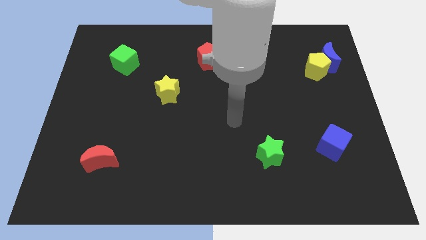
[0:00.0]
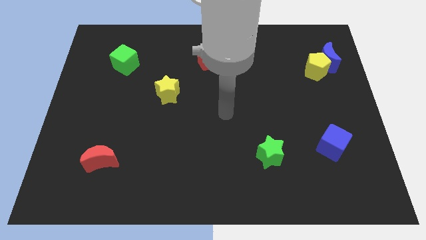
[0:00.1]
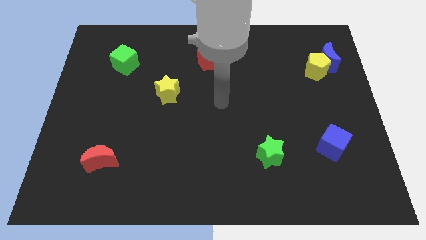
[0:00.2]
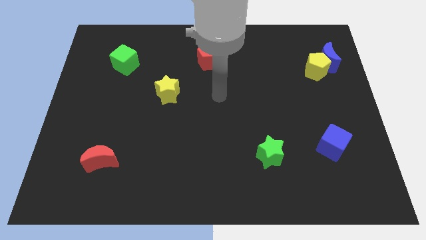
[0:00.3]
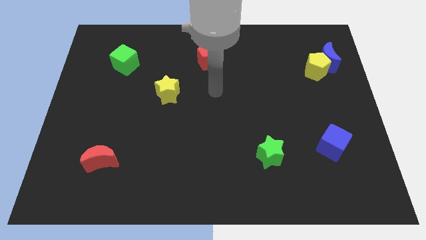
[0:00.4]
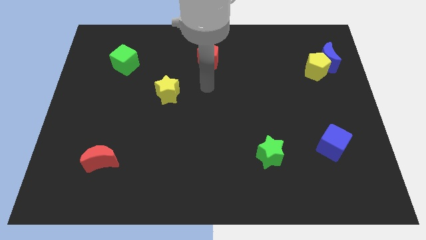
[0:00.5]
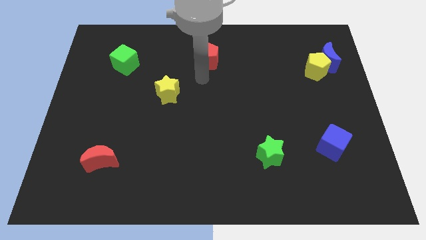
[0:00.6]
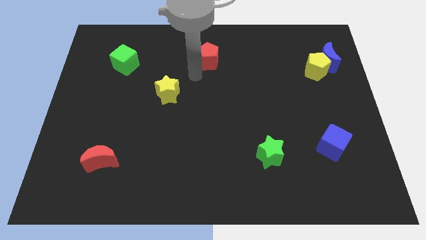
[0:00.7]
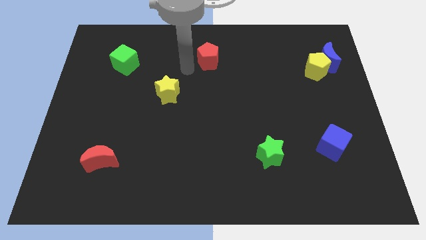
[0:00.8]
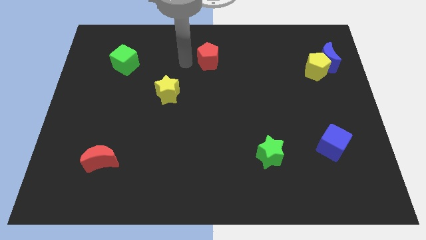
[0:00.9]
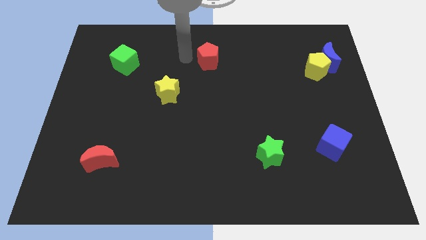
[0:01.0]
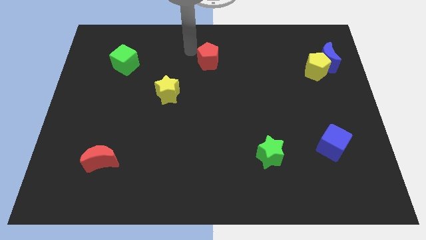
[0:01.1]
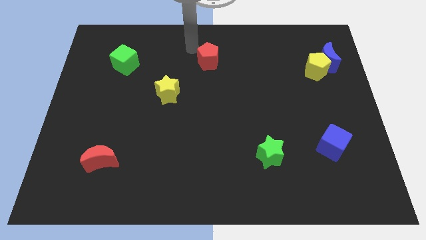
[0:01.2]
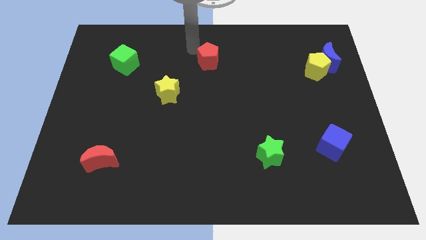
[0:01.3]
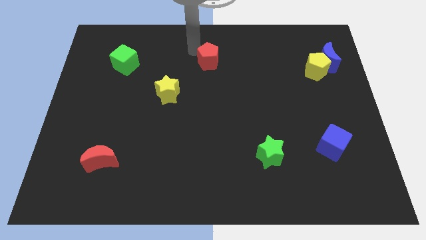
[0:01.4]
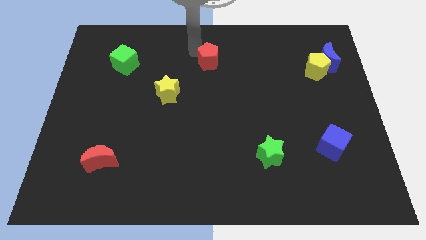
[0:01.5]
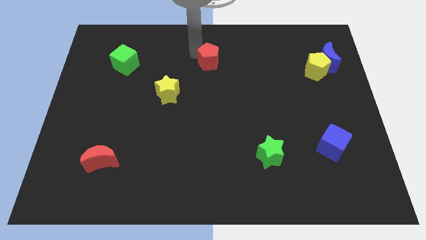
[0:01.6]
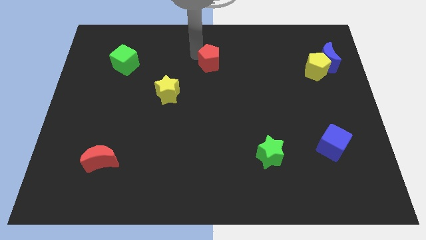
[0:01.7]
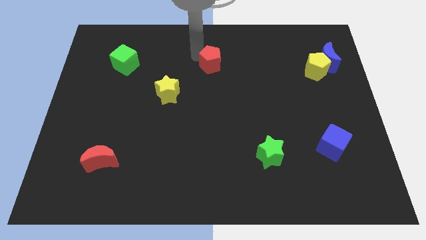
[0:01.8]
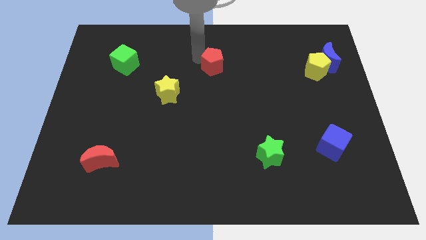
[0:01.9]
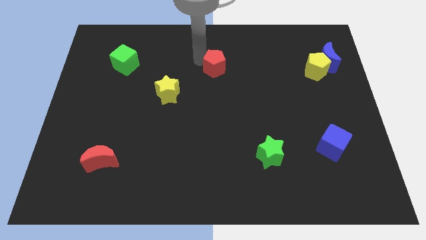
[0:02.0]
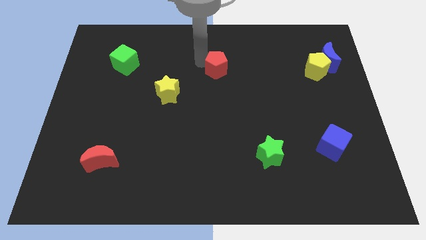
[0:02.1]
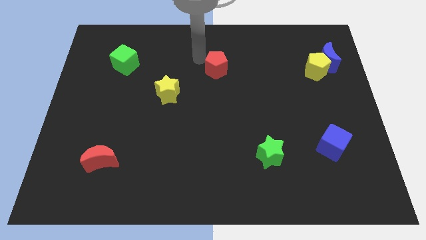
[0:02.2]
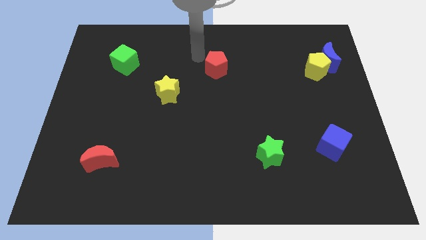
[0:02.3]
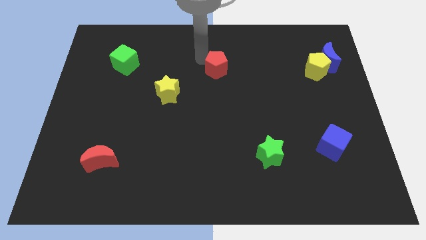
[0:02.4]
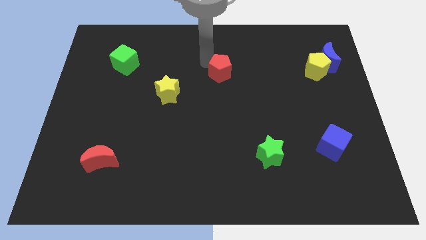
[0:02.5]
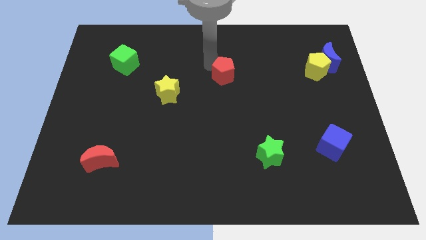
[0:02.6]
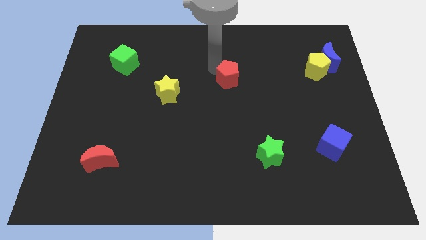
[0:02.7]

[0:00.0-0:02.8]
slightly push the red pentagon diagonally downwards and right

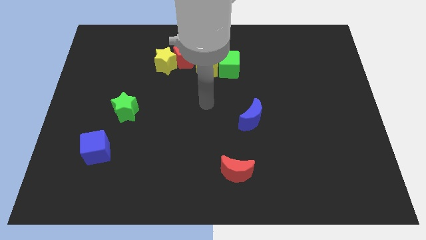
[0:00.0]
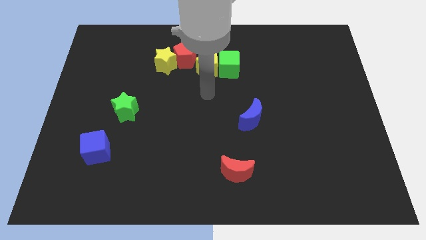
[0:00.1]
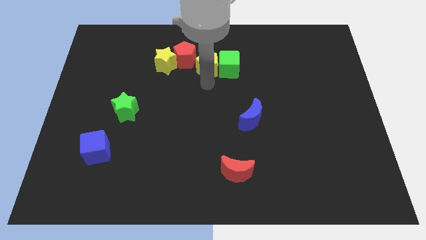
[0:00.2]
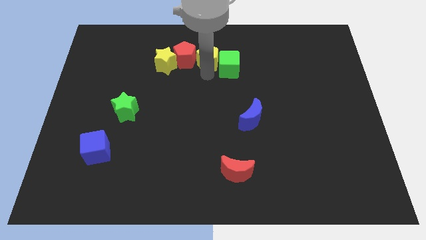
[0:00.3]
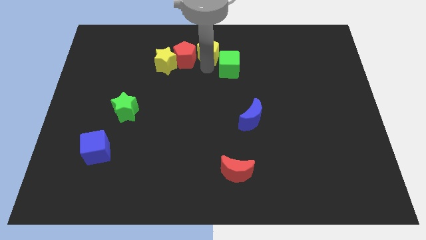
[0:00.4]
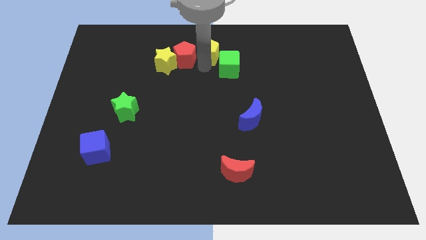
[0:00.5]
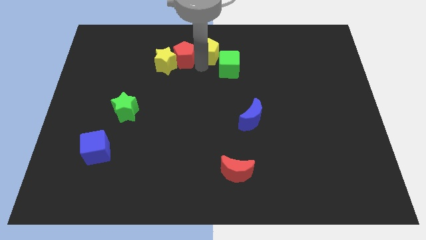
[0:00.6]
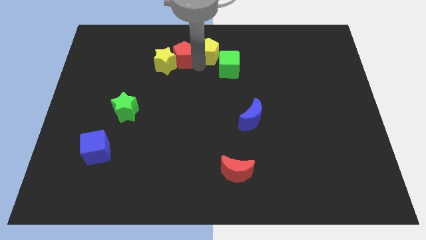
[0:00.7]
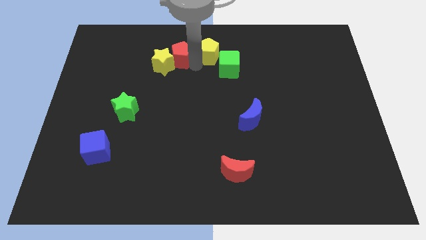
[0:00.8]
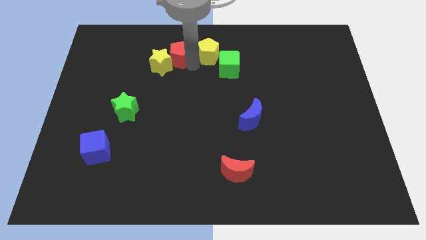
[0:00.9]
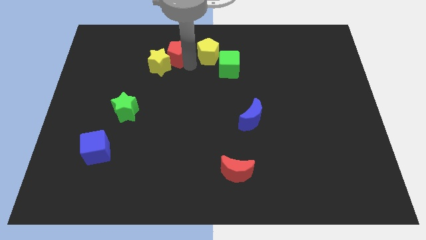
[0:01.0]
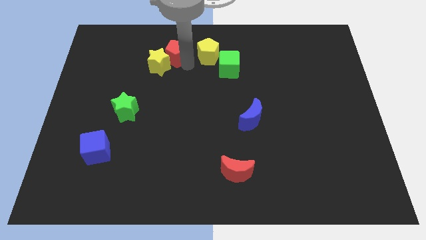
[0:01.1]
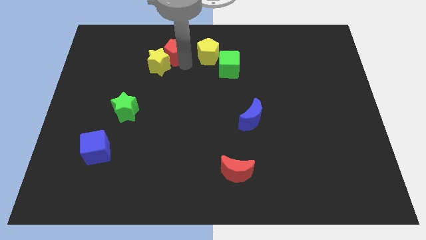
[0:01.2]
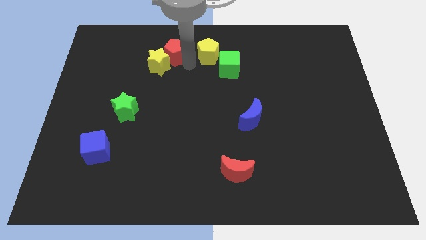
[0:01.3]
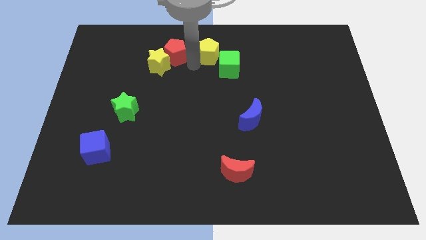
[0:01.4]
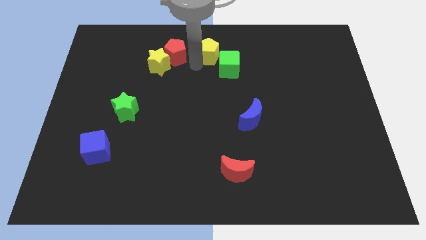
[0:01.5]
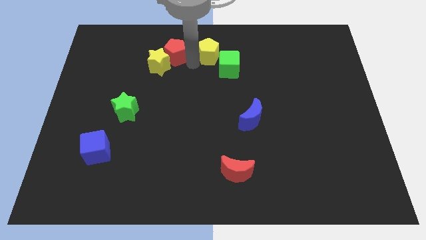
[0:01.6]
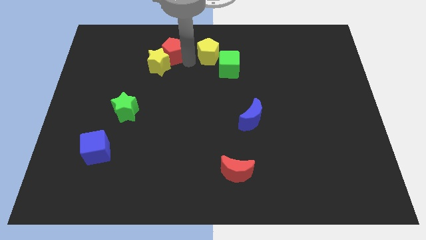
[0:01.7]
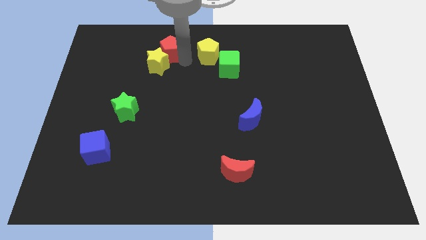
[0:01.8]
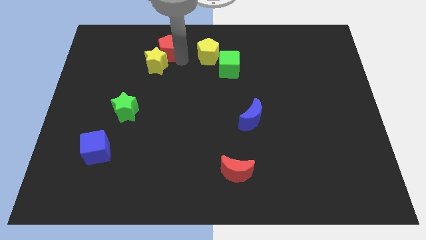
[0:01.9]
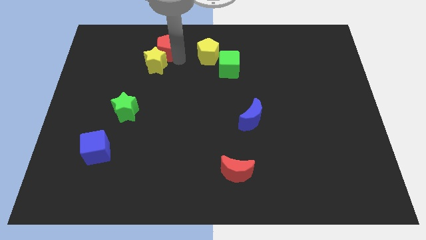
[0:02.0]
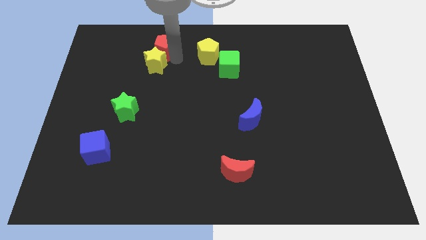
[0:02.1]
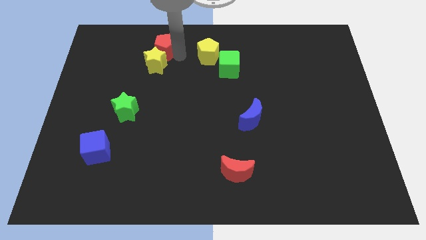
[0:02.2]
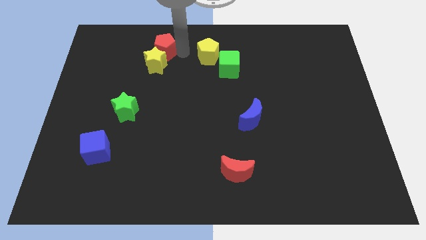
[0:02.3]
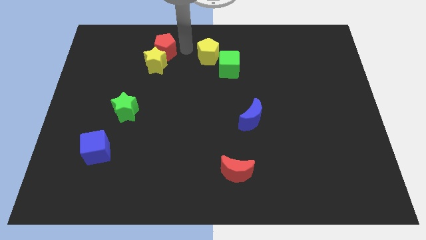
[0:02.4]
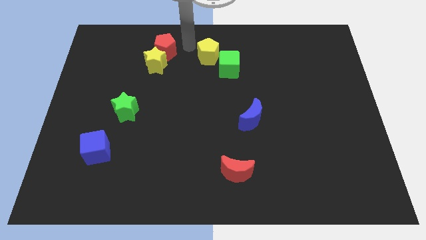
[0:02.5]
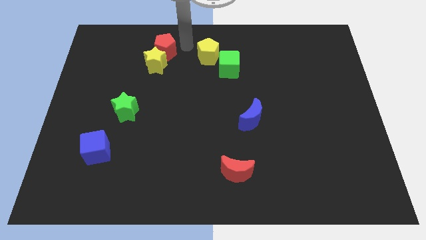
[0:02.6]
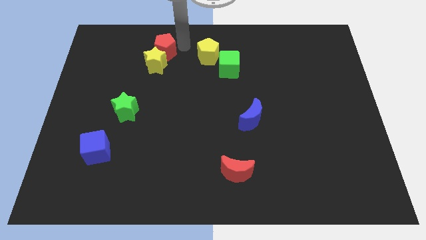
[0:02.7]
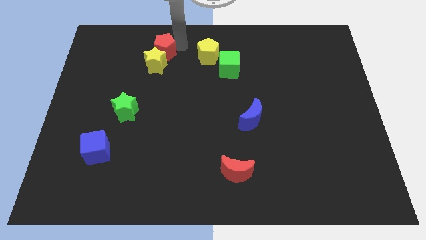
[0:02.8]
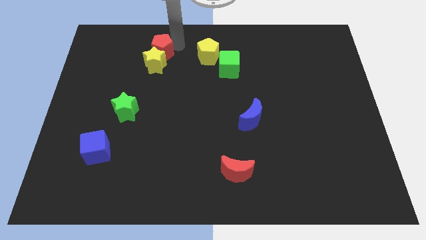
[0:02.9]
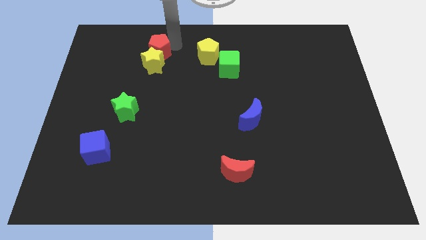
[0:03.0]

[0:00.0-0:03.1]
move the red pentagon to the left a little

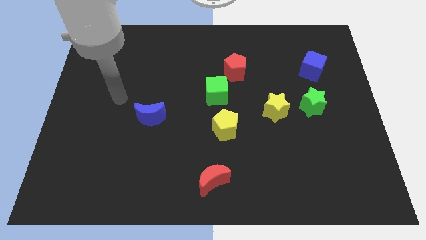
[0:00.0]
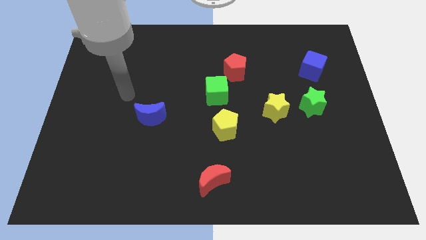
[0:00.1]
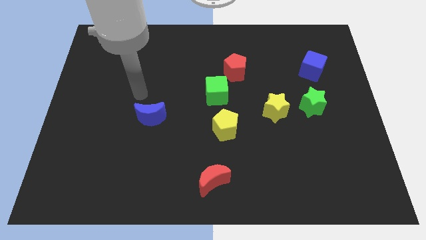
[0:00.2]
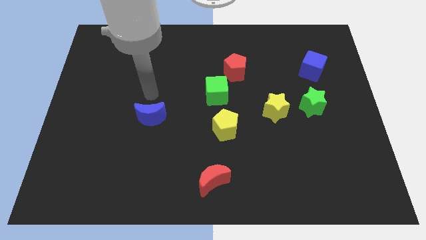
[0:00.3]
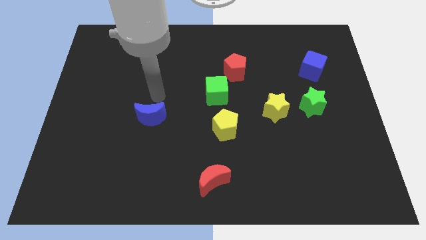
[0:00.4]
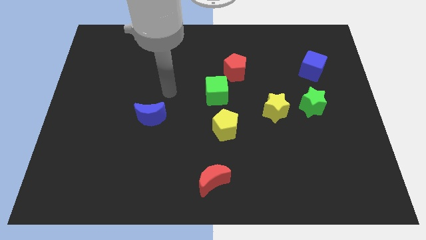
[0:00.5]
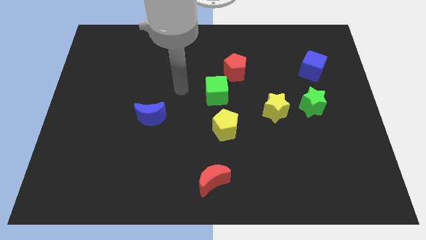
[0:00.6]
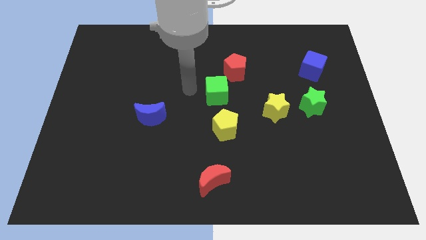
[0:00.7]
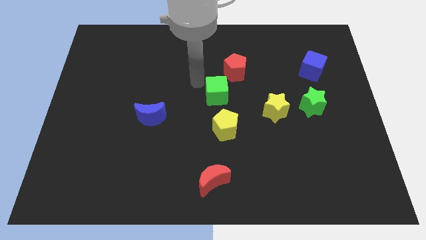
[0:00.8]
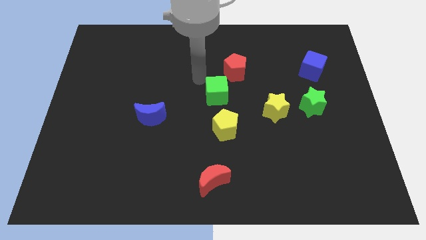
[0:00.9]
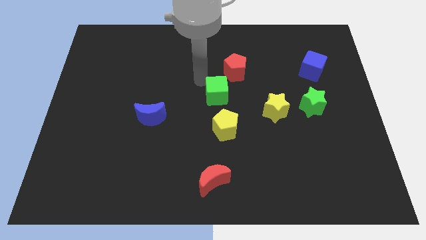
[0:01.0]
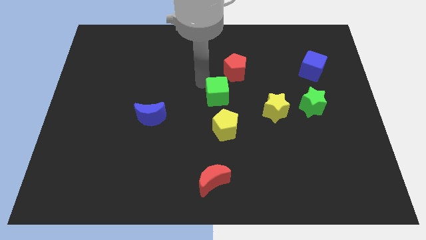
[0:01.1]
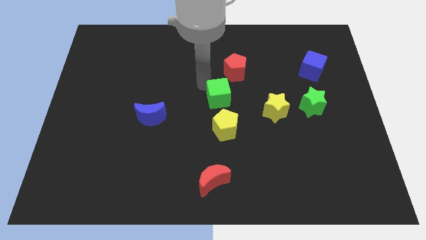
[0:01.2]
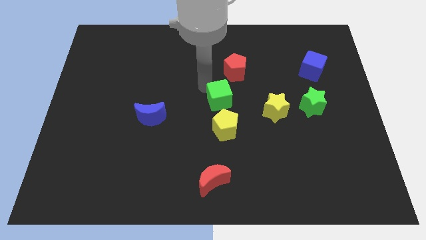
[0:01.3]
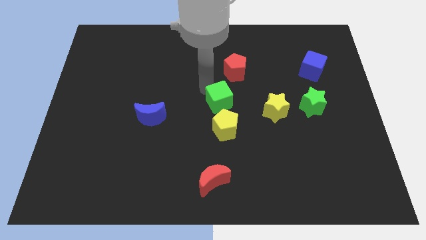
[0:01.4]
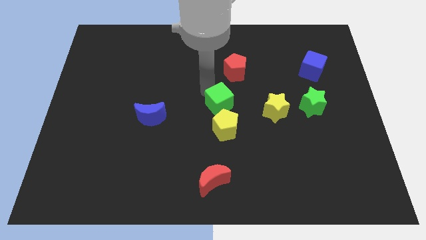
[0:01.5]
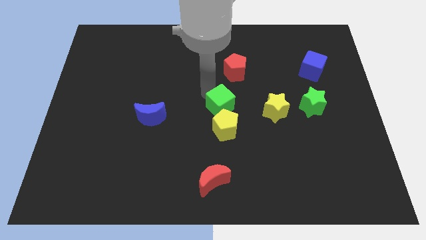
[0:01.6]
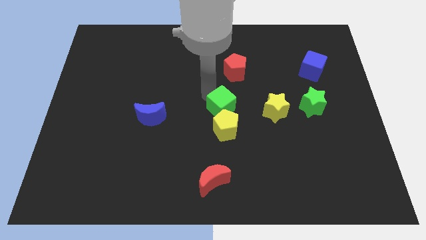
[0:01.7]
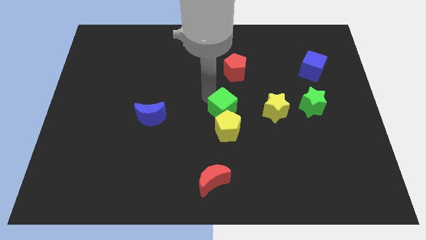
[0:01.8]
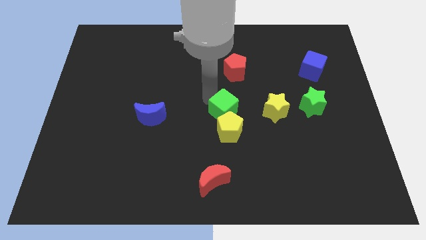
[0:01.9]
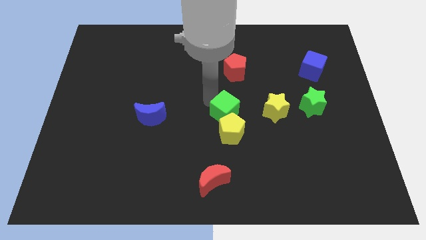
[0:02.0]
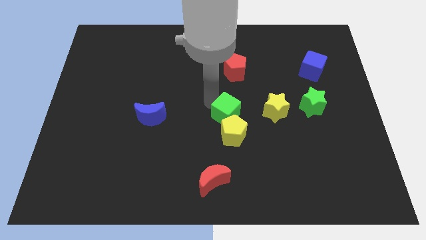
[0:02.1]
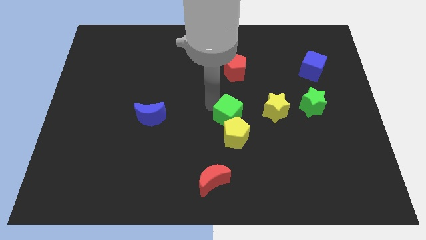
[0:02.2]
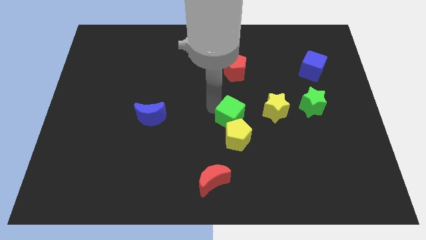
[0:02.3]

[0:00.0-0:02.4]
slightly push the green cube down and right diagonally
